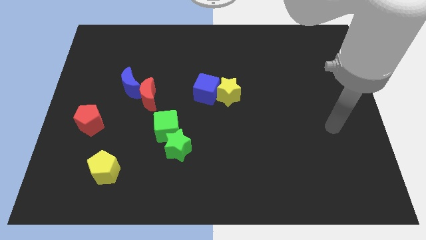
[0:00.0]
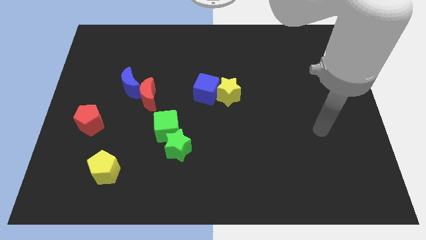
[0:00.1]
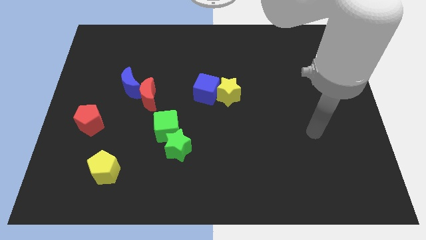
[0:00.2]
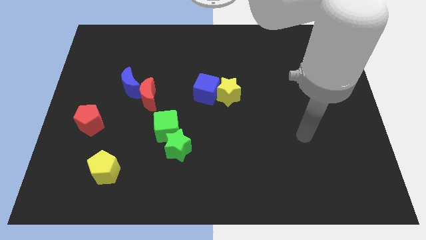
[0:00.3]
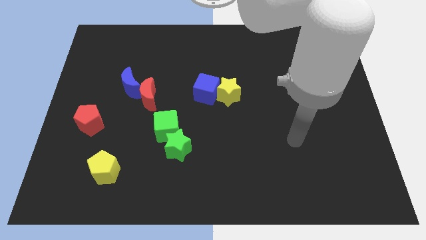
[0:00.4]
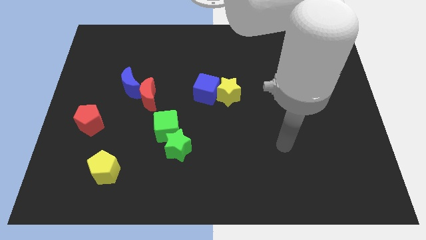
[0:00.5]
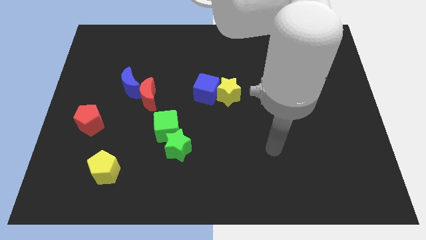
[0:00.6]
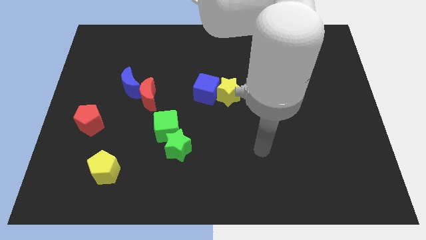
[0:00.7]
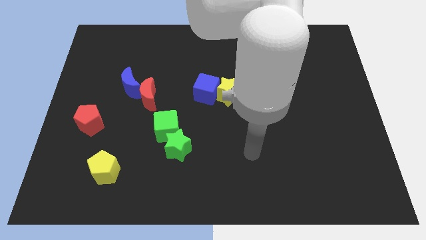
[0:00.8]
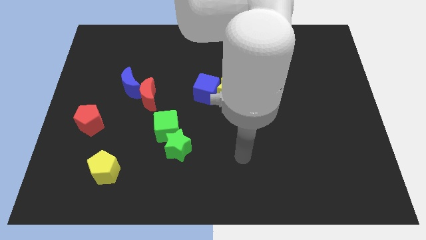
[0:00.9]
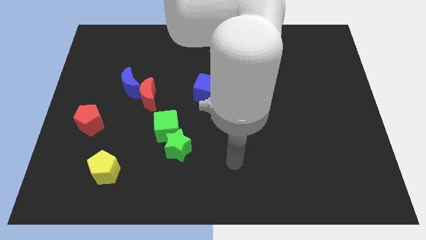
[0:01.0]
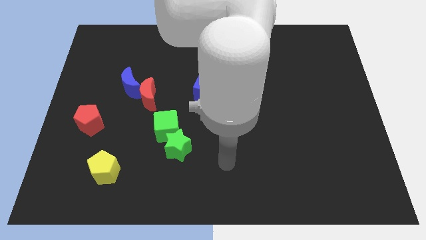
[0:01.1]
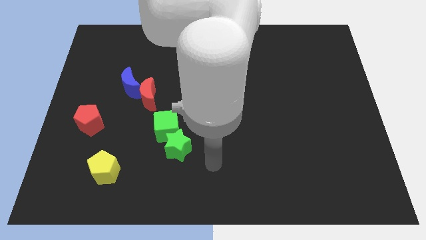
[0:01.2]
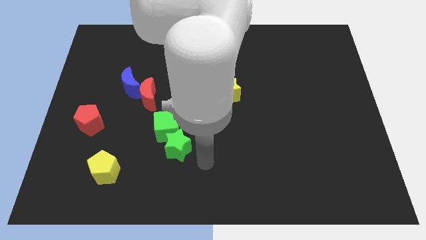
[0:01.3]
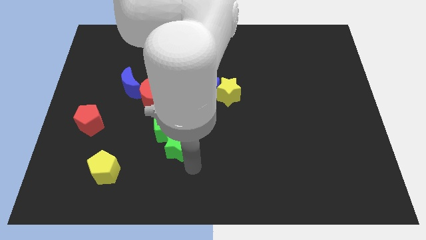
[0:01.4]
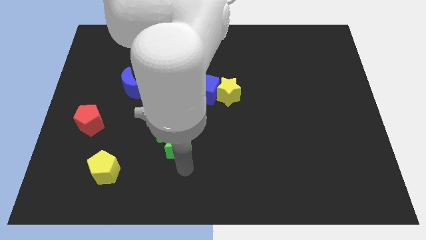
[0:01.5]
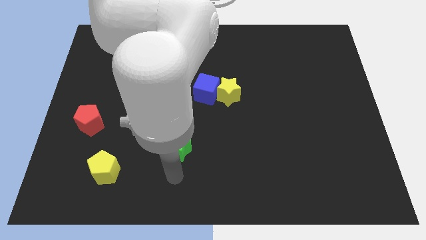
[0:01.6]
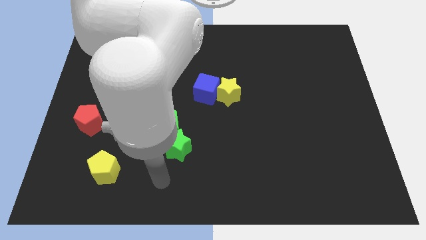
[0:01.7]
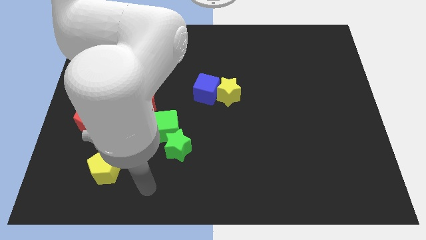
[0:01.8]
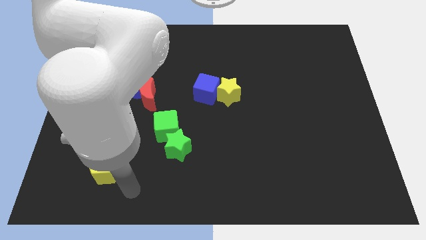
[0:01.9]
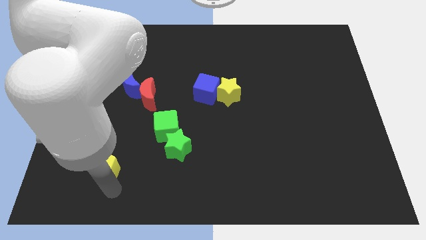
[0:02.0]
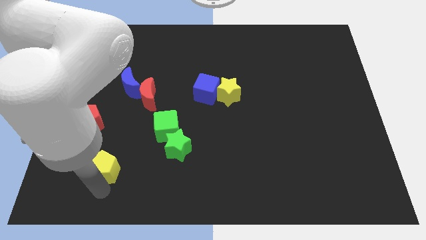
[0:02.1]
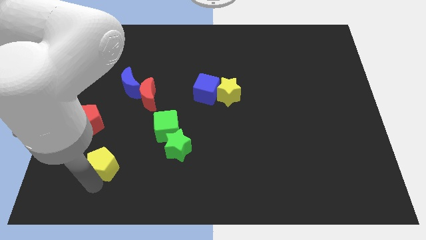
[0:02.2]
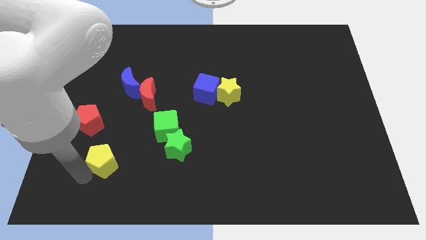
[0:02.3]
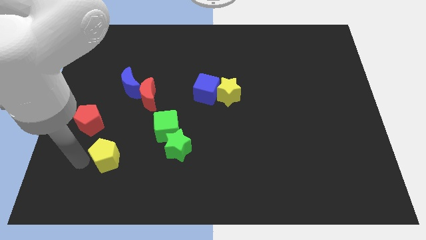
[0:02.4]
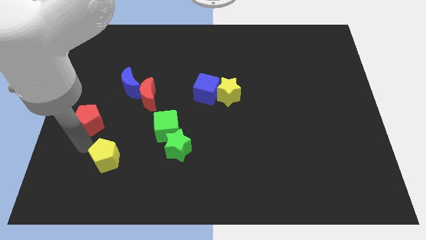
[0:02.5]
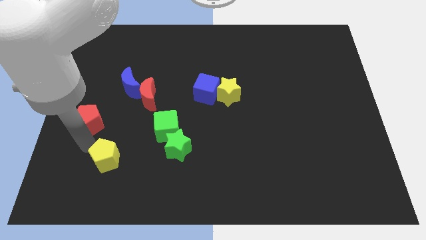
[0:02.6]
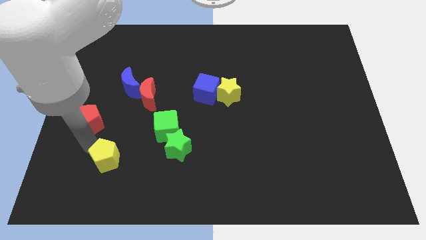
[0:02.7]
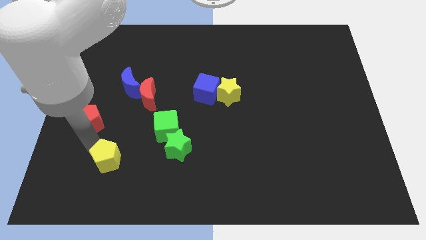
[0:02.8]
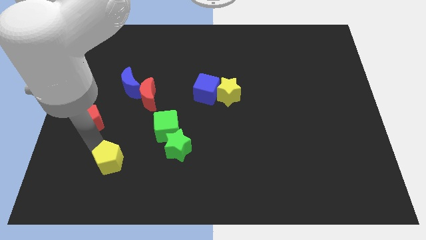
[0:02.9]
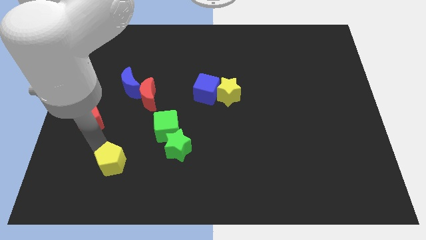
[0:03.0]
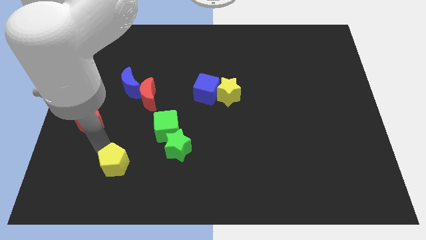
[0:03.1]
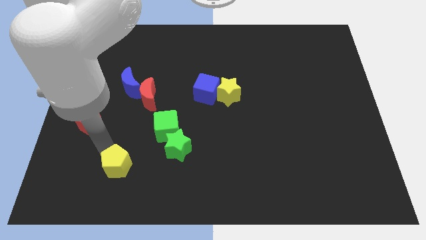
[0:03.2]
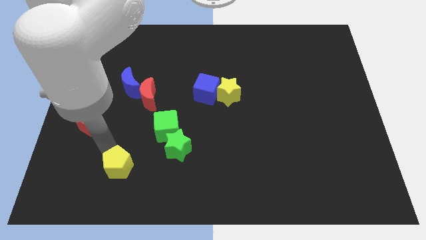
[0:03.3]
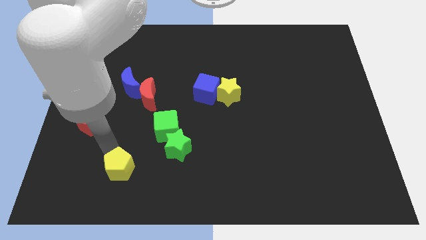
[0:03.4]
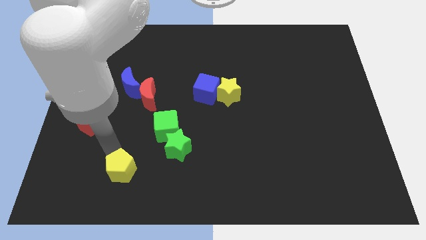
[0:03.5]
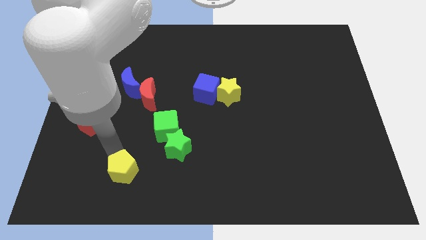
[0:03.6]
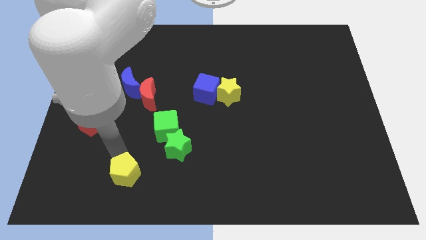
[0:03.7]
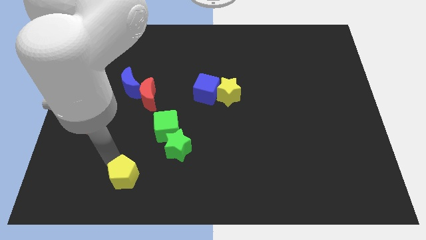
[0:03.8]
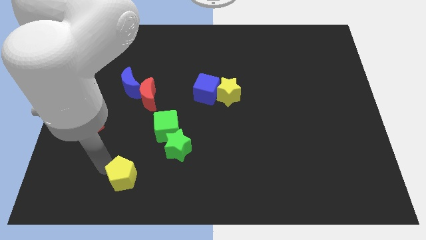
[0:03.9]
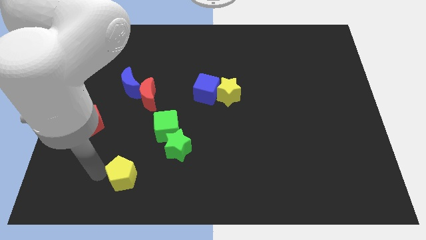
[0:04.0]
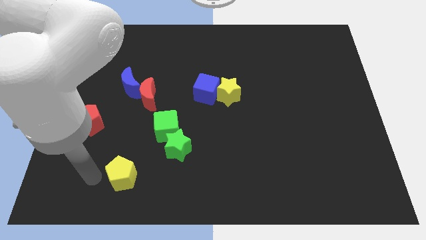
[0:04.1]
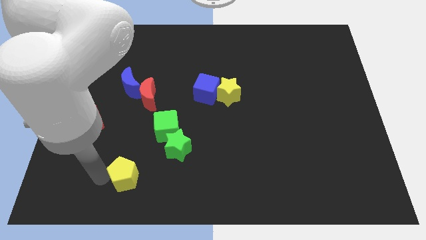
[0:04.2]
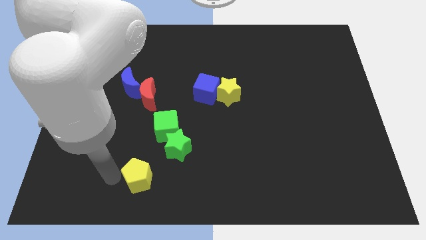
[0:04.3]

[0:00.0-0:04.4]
slightly slide the yellow pentagon right

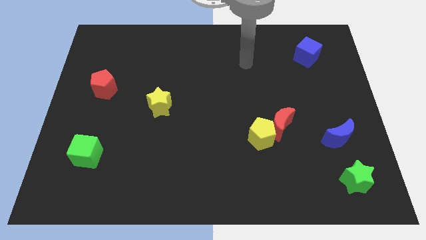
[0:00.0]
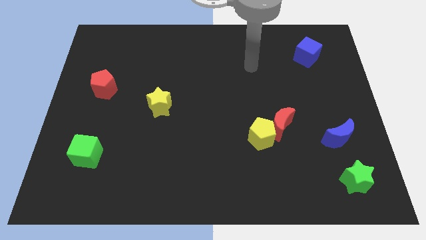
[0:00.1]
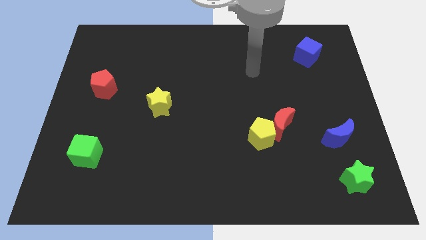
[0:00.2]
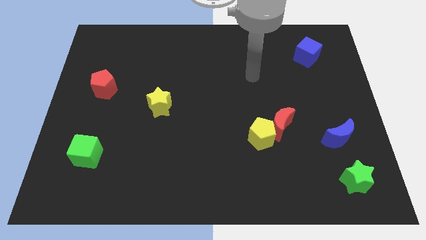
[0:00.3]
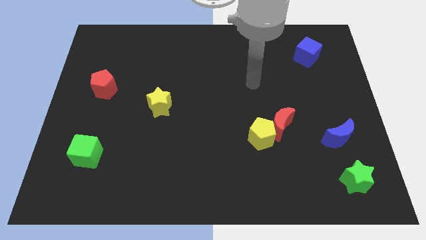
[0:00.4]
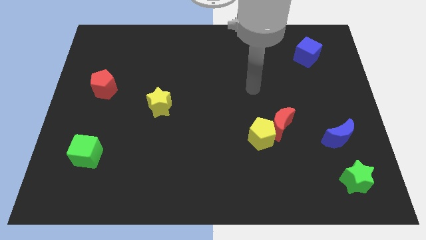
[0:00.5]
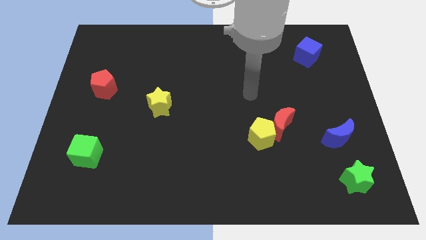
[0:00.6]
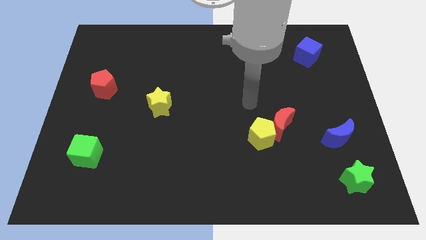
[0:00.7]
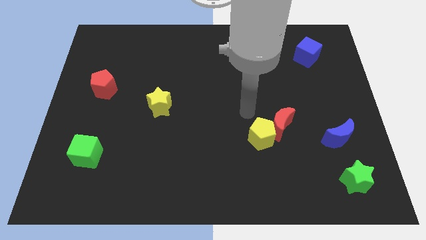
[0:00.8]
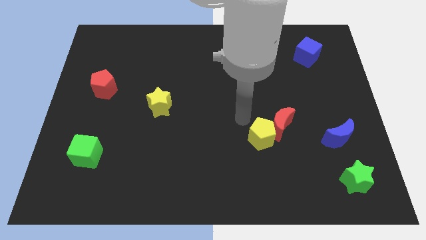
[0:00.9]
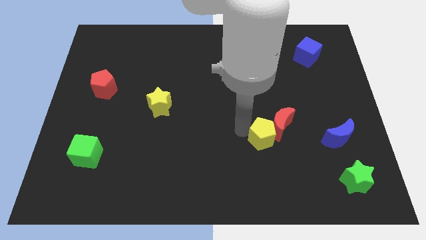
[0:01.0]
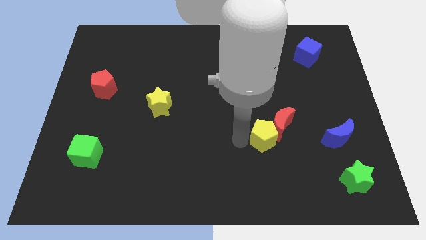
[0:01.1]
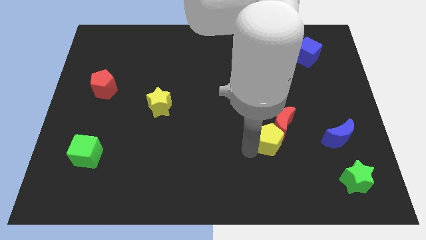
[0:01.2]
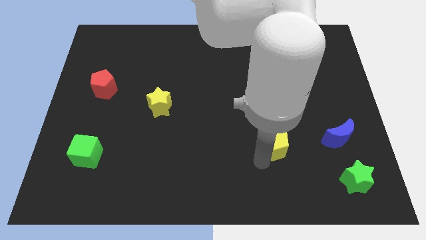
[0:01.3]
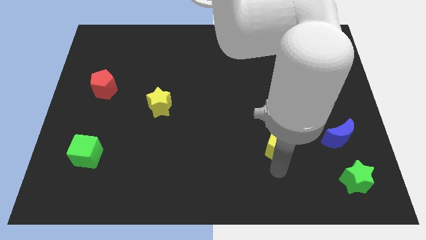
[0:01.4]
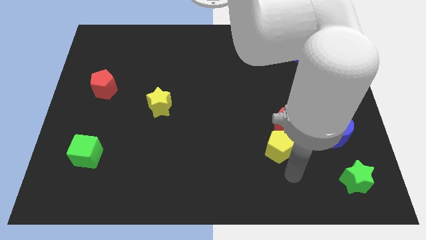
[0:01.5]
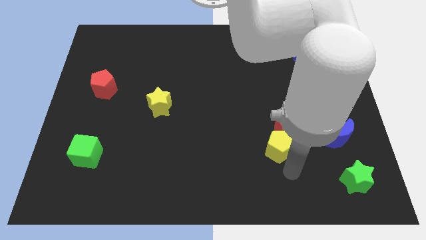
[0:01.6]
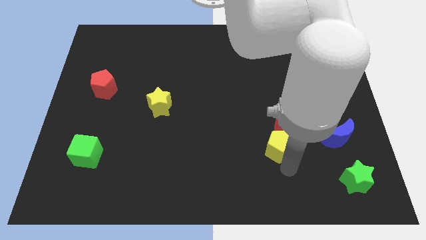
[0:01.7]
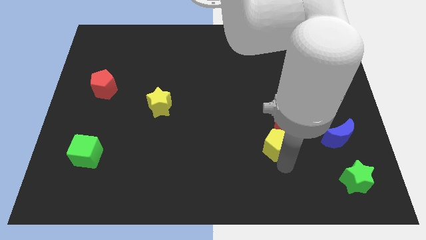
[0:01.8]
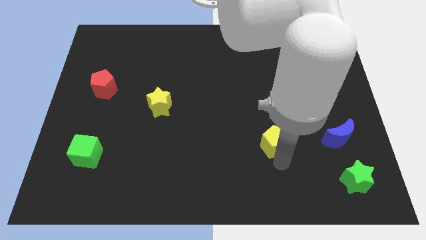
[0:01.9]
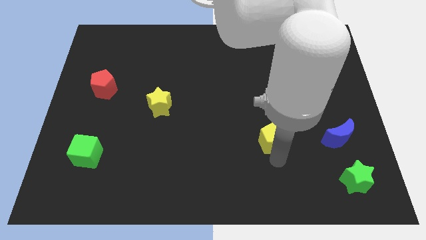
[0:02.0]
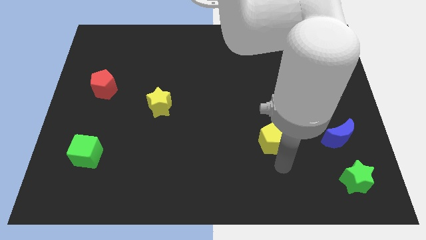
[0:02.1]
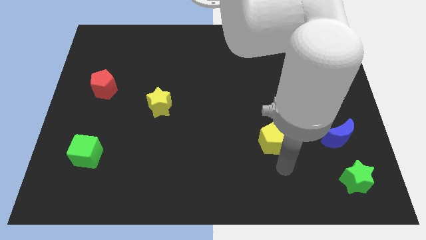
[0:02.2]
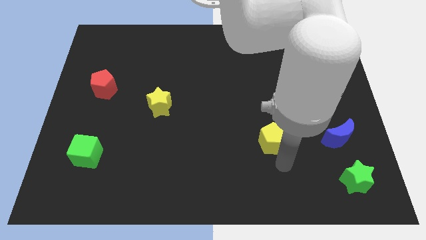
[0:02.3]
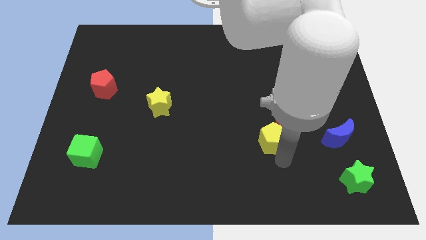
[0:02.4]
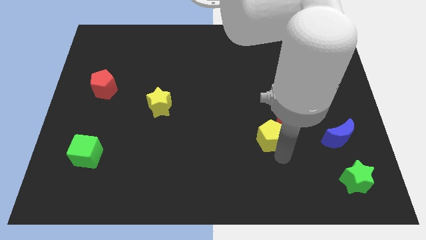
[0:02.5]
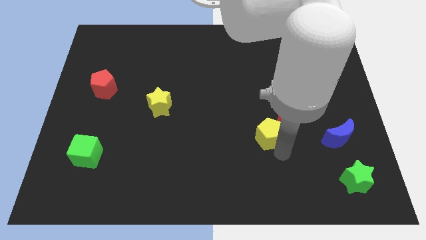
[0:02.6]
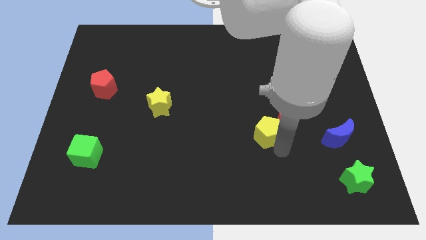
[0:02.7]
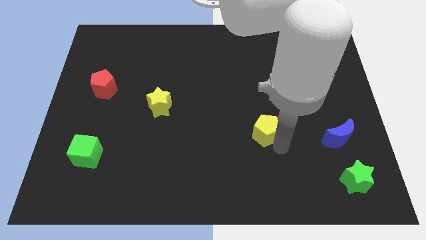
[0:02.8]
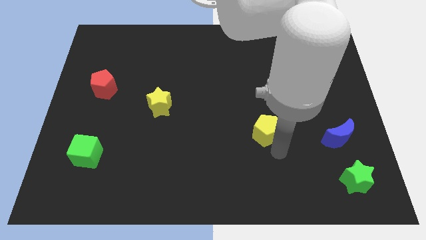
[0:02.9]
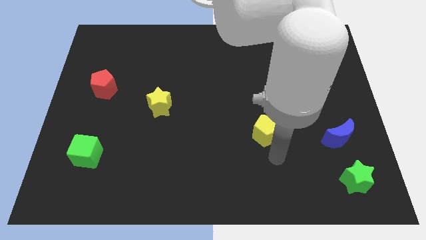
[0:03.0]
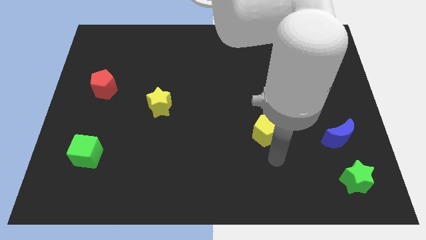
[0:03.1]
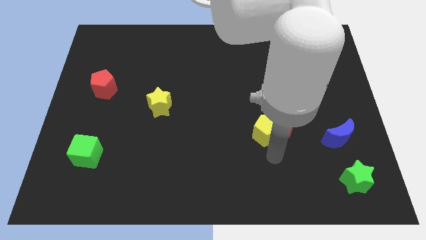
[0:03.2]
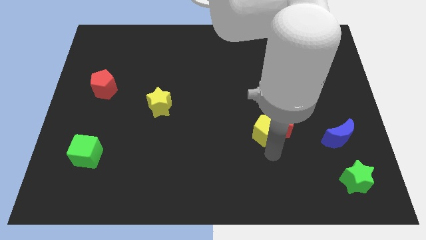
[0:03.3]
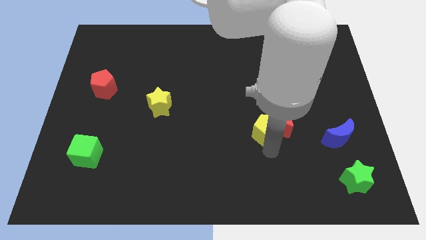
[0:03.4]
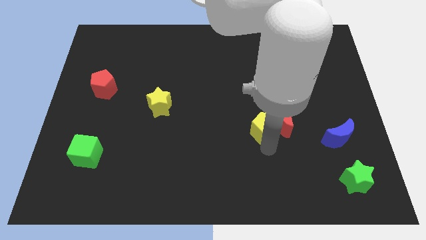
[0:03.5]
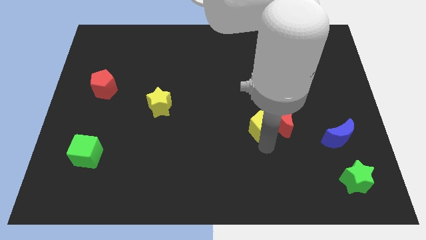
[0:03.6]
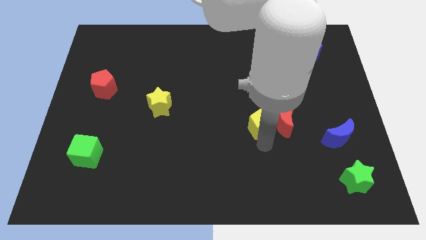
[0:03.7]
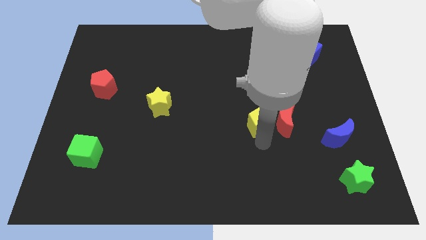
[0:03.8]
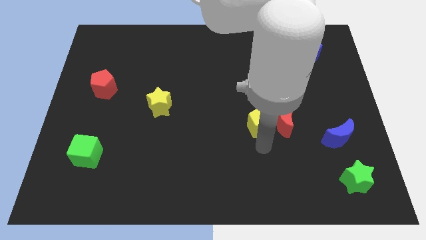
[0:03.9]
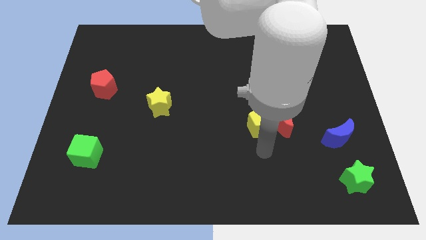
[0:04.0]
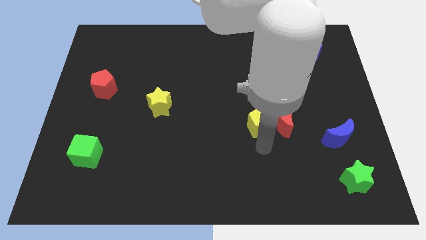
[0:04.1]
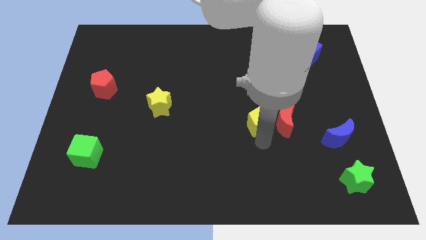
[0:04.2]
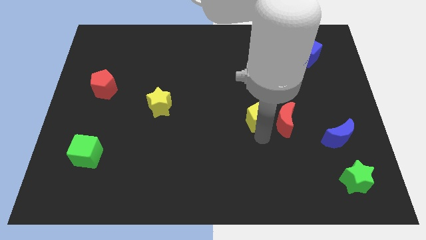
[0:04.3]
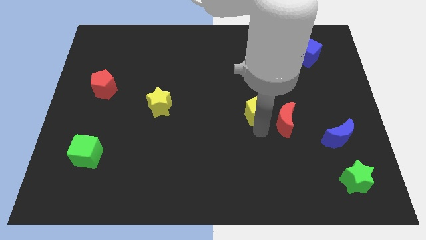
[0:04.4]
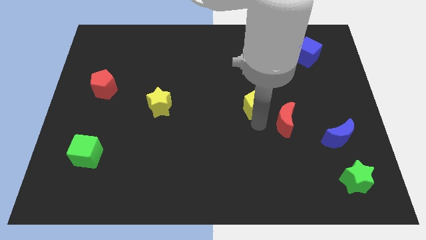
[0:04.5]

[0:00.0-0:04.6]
slide the yellow pentagon a little bit up
